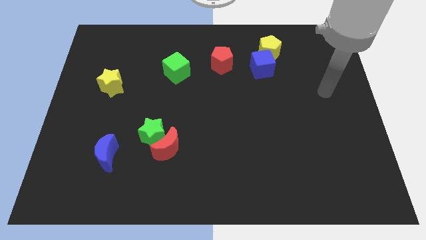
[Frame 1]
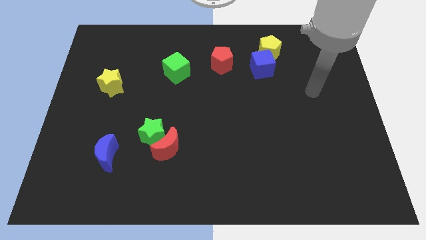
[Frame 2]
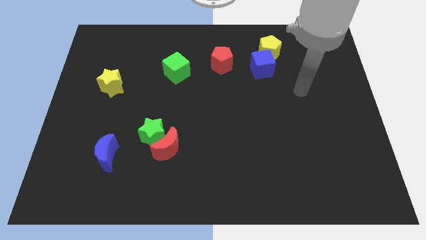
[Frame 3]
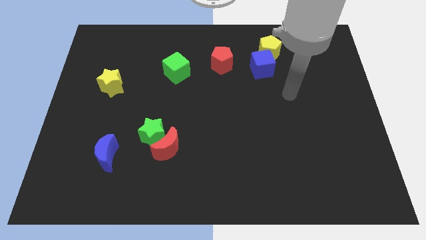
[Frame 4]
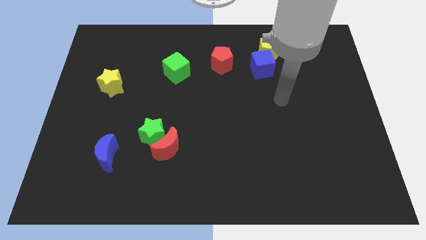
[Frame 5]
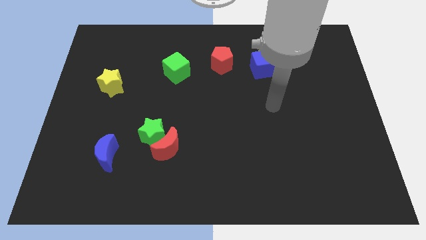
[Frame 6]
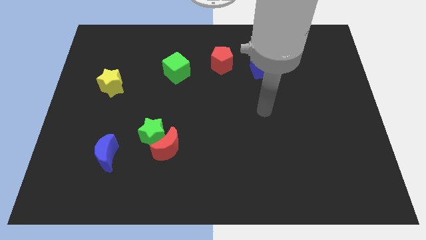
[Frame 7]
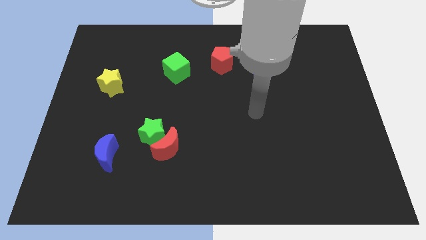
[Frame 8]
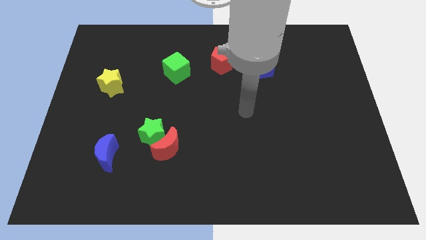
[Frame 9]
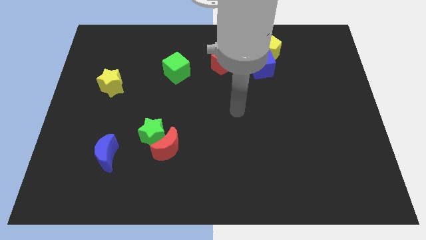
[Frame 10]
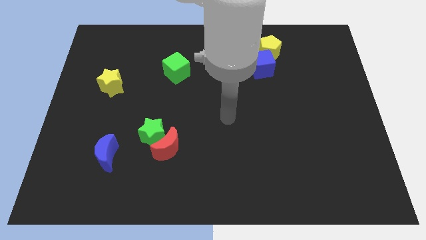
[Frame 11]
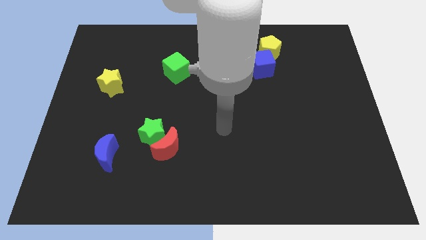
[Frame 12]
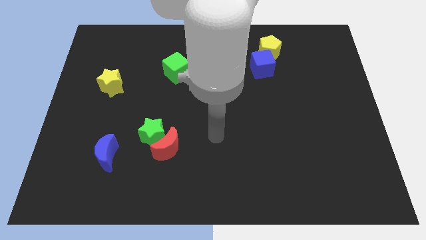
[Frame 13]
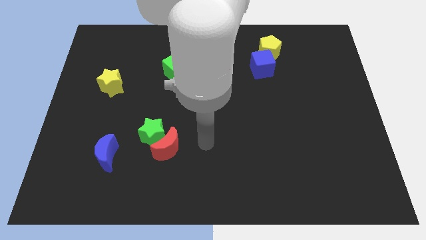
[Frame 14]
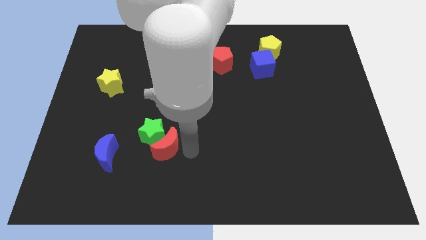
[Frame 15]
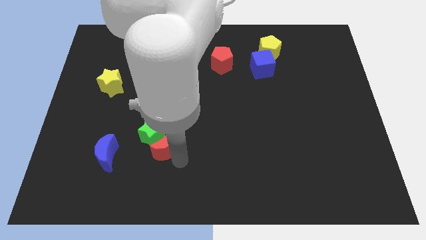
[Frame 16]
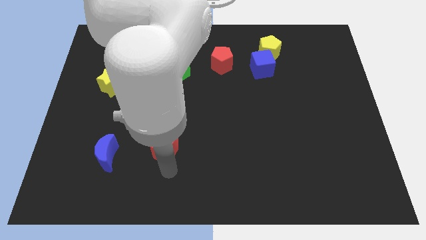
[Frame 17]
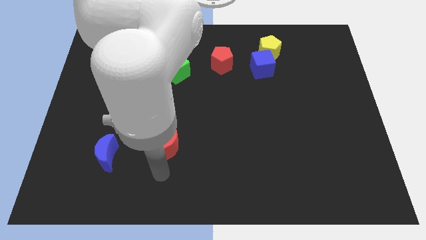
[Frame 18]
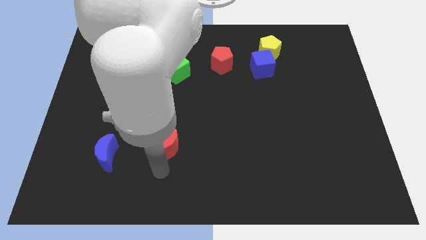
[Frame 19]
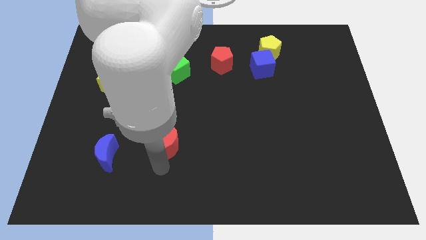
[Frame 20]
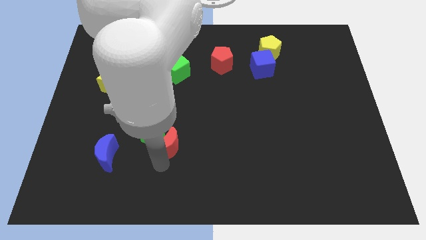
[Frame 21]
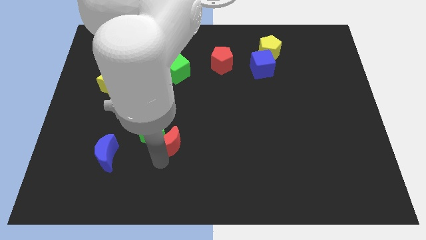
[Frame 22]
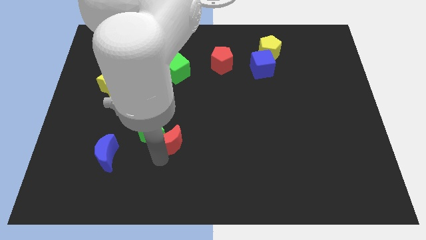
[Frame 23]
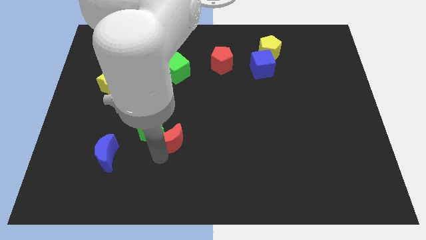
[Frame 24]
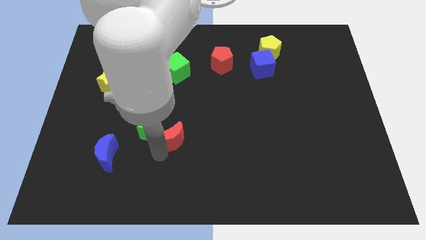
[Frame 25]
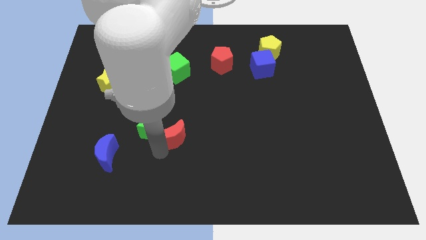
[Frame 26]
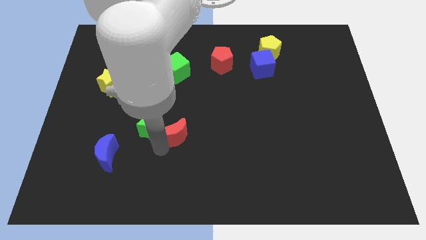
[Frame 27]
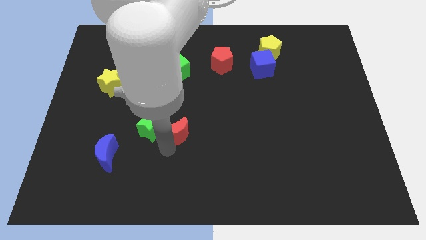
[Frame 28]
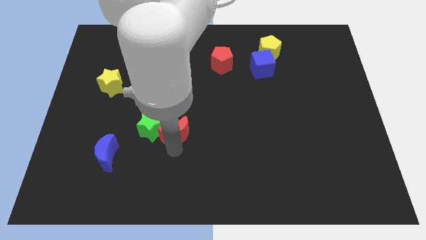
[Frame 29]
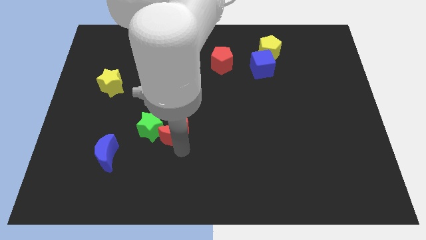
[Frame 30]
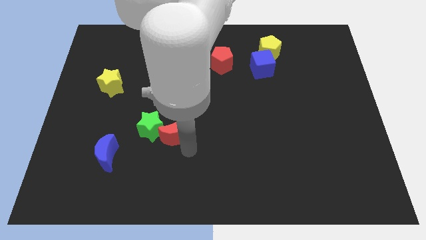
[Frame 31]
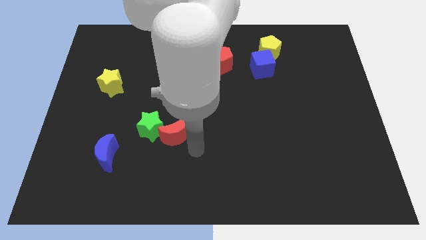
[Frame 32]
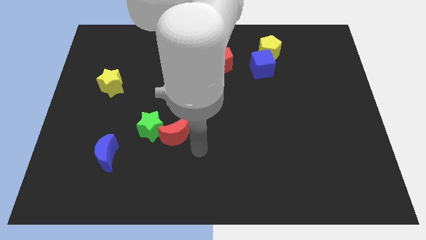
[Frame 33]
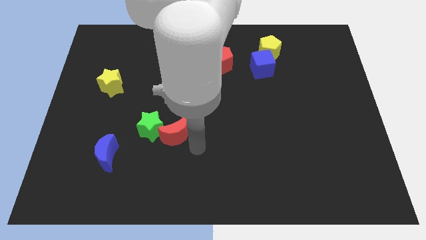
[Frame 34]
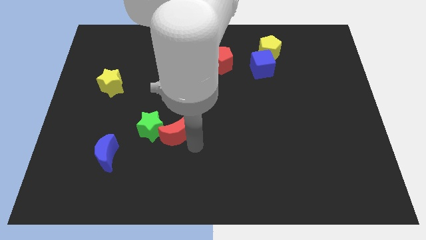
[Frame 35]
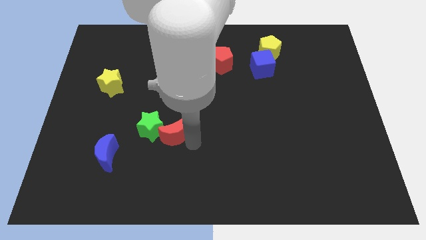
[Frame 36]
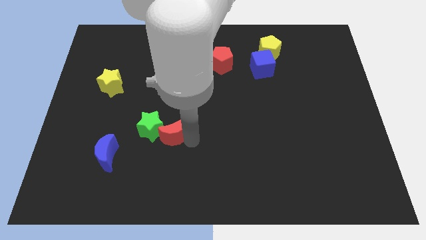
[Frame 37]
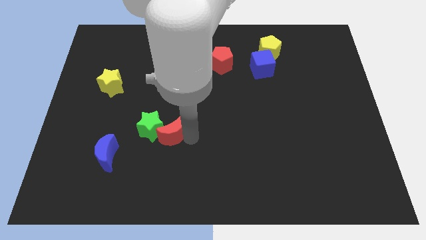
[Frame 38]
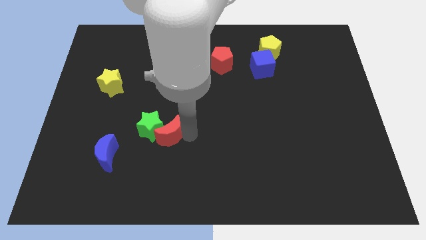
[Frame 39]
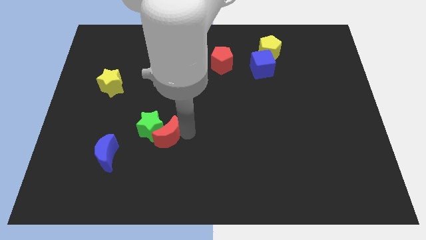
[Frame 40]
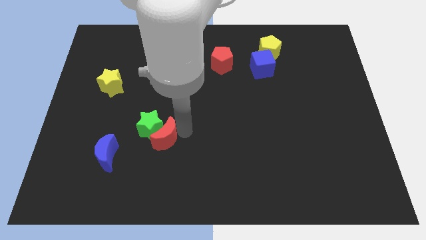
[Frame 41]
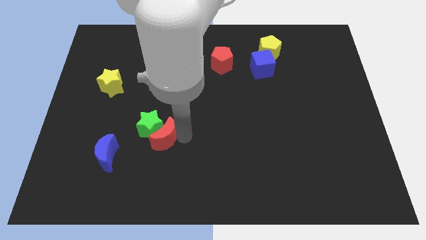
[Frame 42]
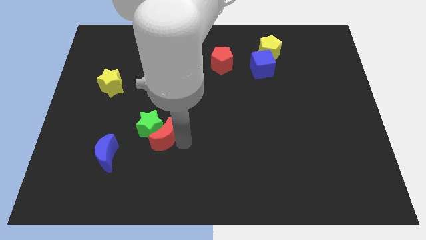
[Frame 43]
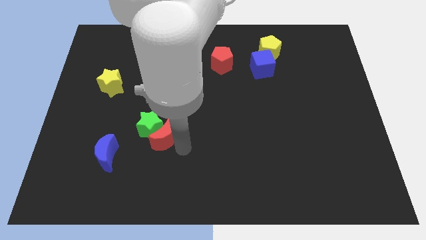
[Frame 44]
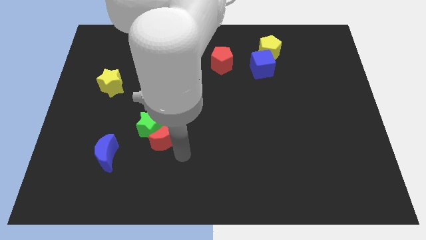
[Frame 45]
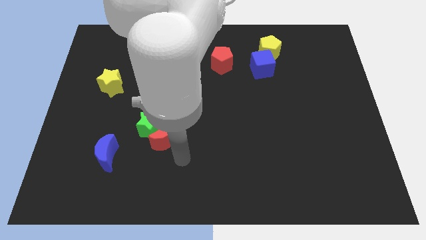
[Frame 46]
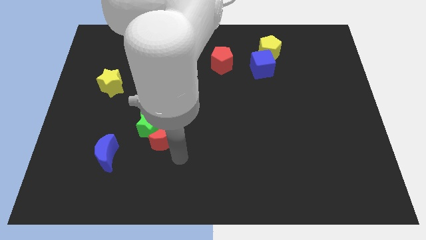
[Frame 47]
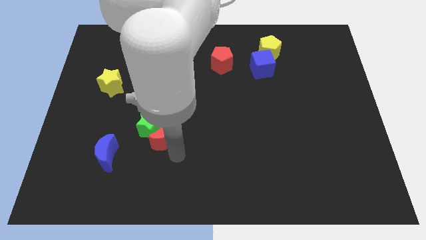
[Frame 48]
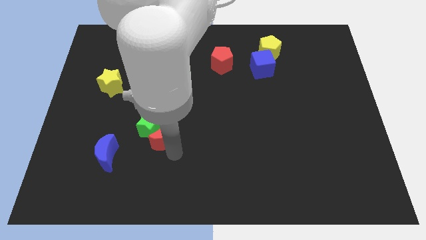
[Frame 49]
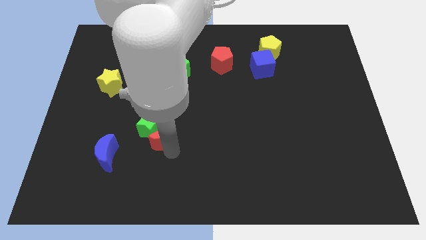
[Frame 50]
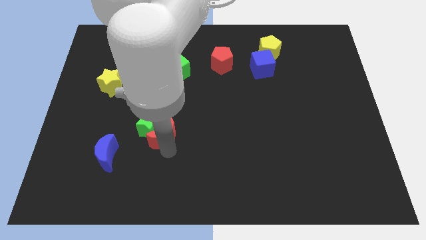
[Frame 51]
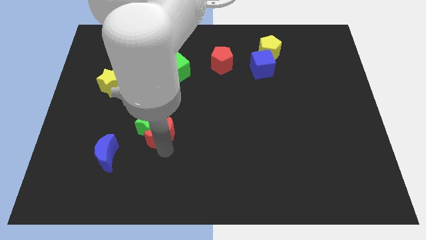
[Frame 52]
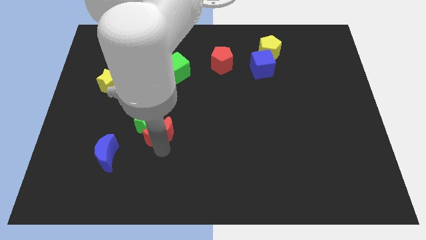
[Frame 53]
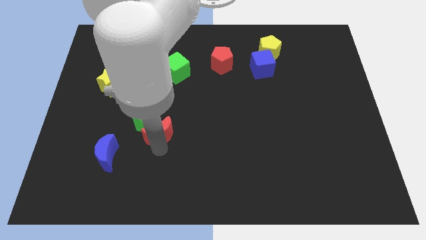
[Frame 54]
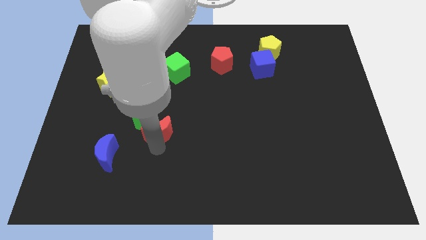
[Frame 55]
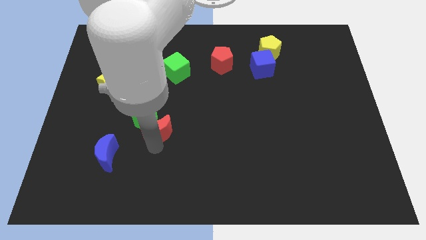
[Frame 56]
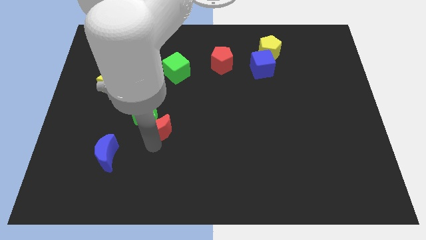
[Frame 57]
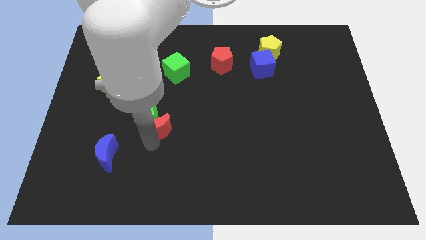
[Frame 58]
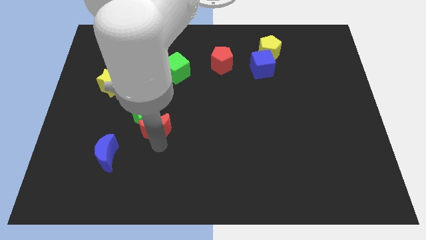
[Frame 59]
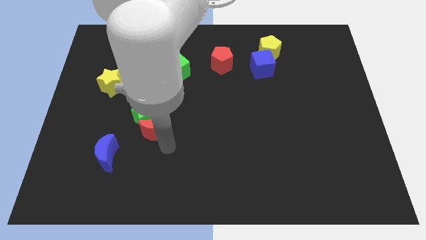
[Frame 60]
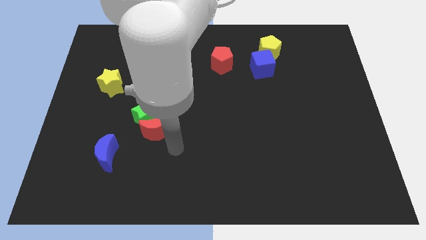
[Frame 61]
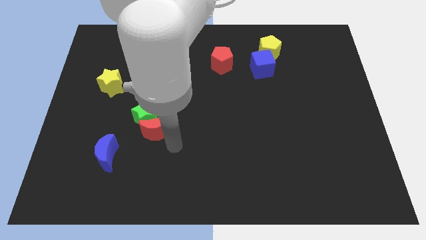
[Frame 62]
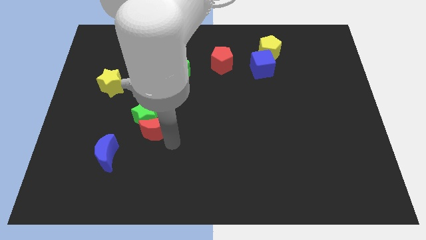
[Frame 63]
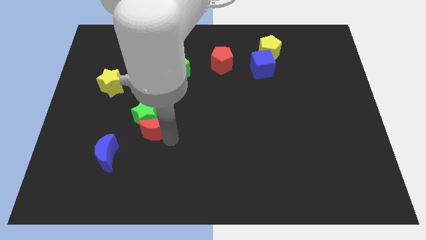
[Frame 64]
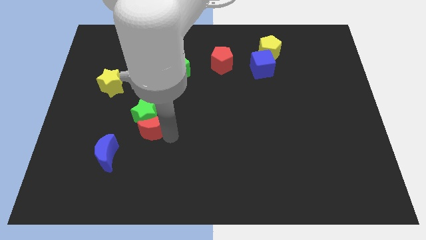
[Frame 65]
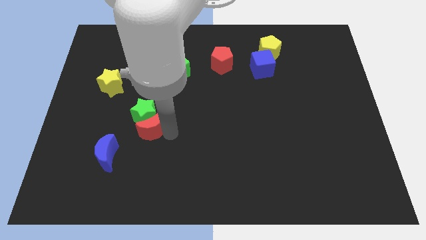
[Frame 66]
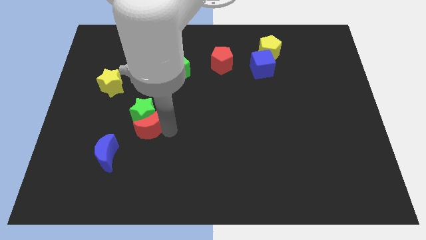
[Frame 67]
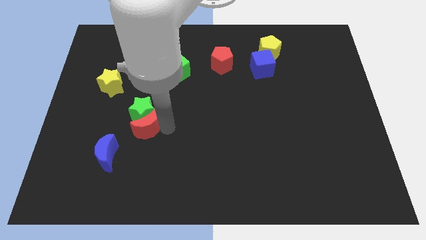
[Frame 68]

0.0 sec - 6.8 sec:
slightly slide the red moon up and then to the left

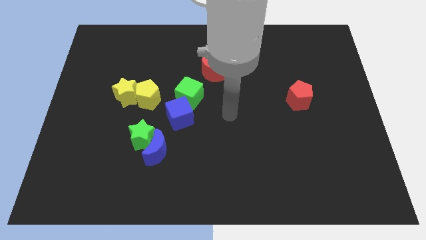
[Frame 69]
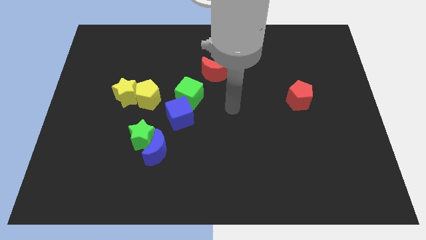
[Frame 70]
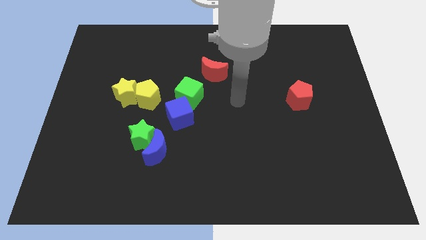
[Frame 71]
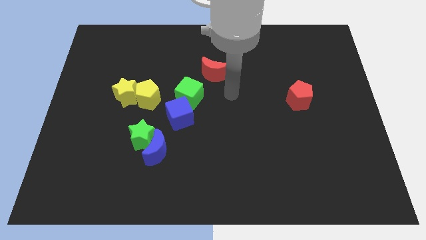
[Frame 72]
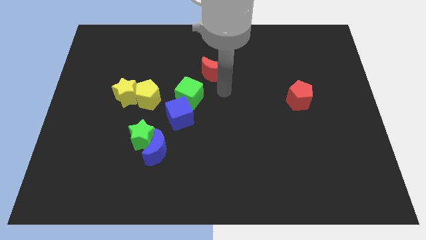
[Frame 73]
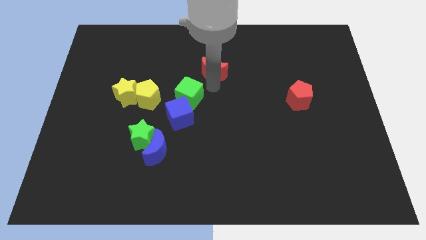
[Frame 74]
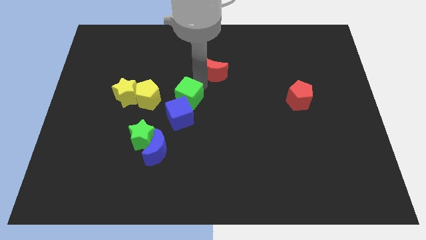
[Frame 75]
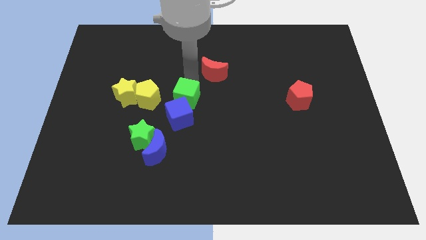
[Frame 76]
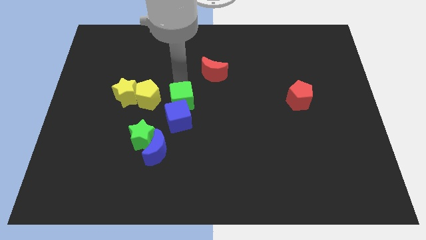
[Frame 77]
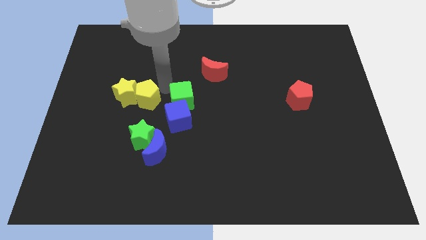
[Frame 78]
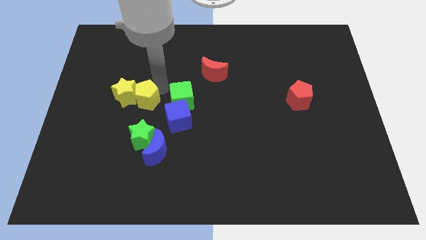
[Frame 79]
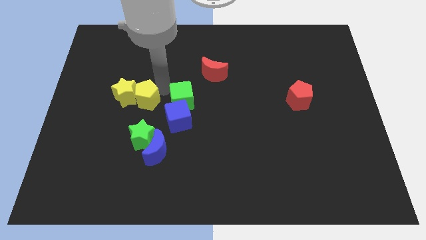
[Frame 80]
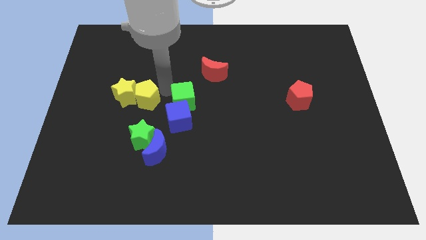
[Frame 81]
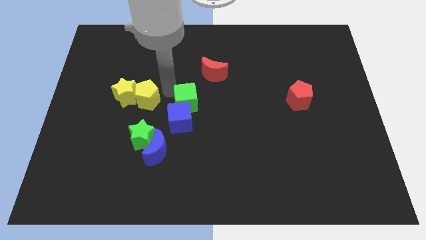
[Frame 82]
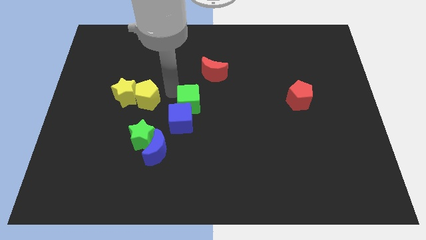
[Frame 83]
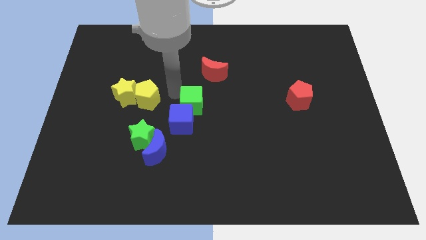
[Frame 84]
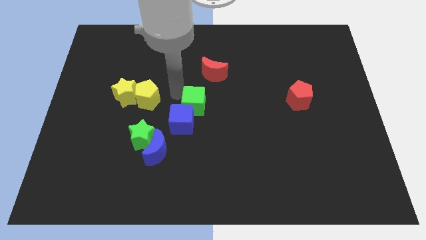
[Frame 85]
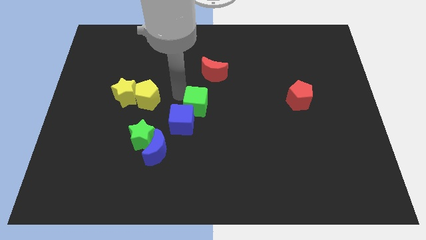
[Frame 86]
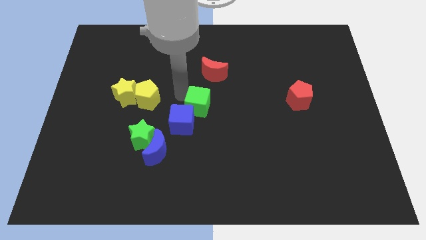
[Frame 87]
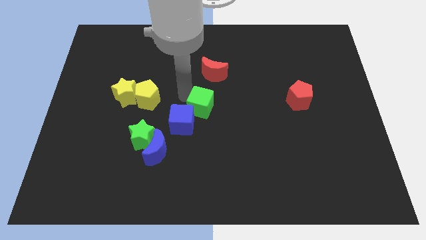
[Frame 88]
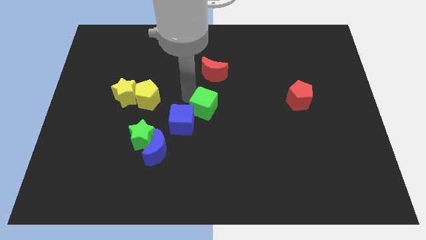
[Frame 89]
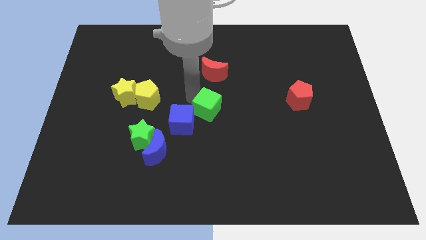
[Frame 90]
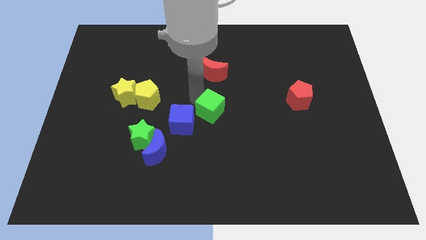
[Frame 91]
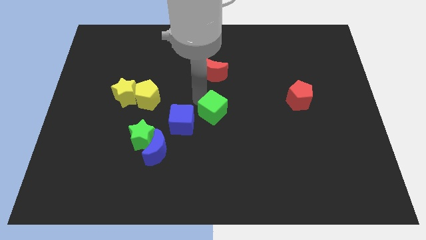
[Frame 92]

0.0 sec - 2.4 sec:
slide the green cube downwards and then right somewhat
